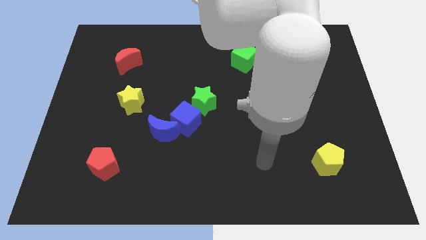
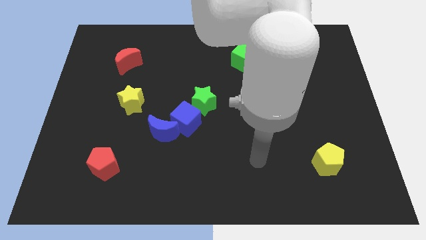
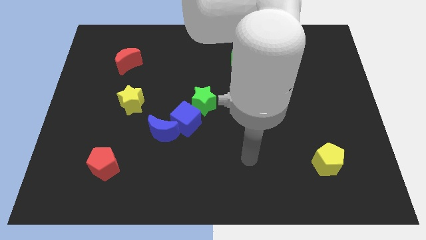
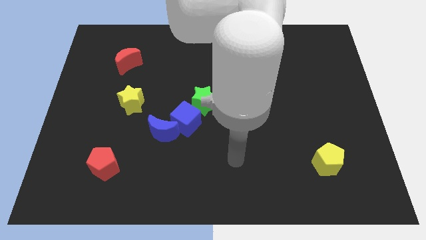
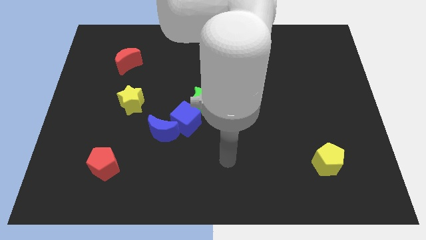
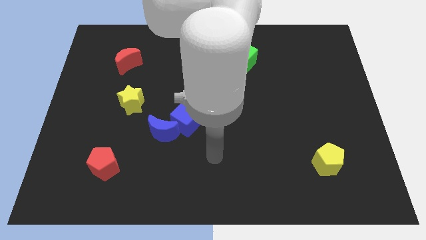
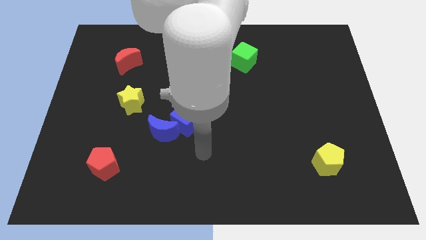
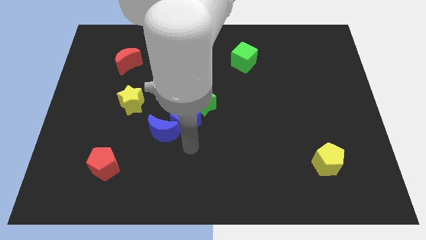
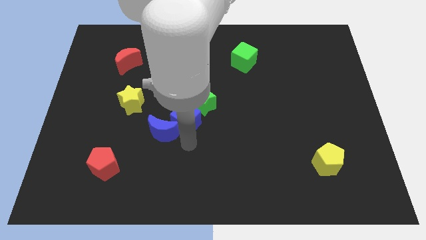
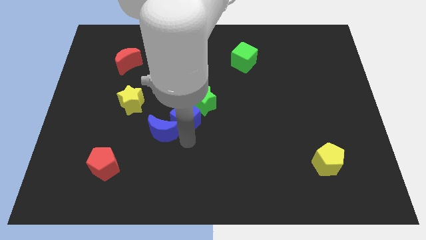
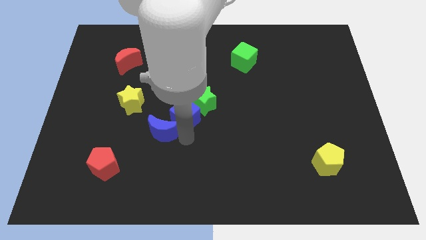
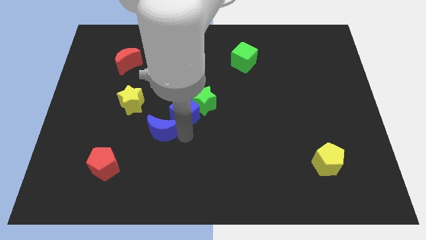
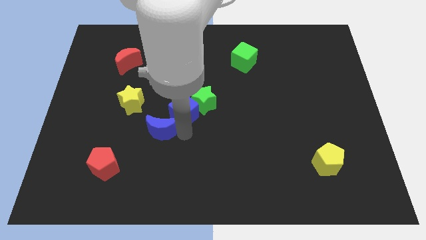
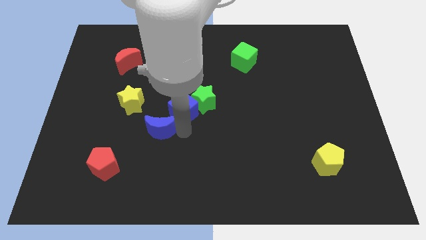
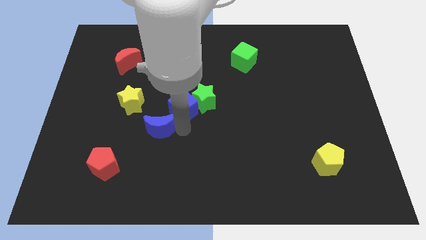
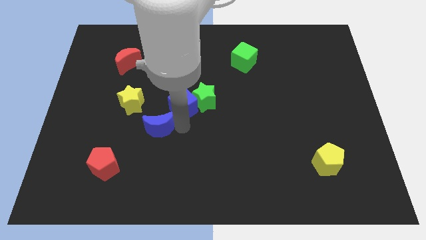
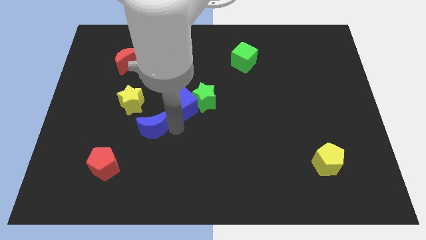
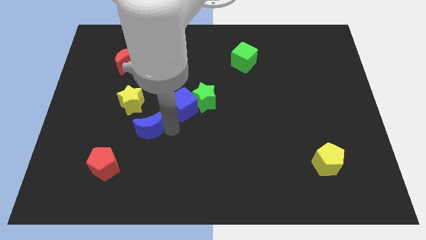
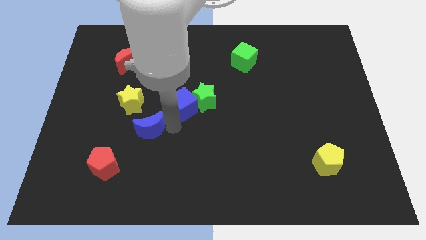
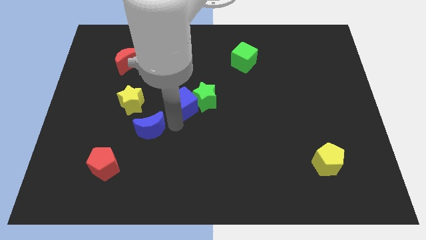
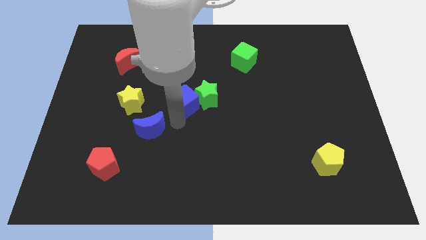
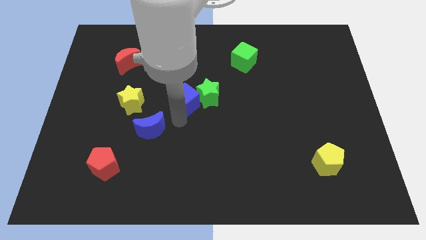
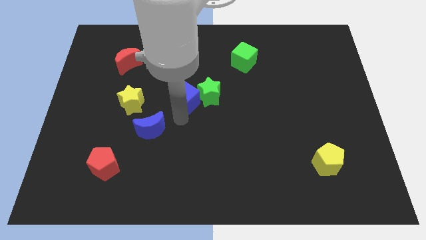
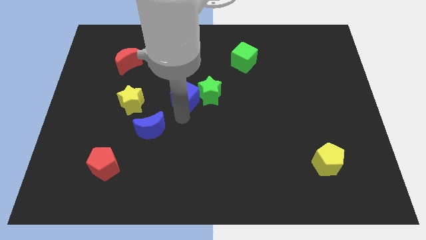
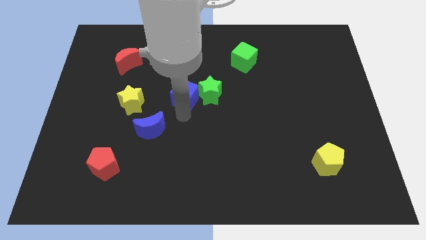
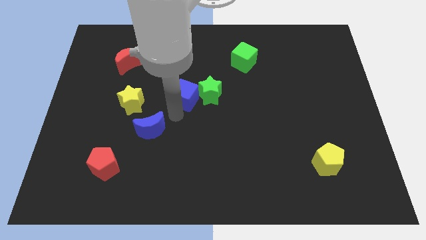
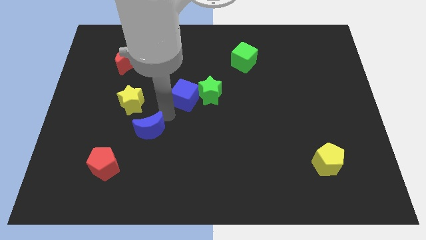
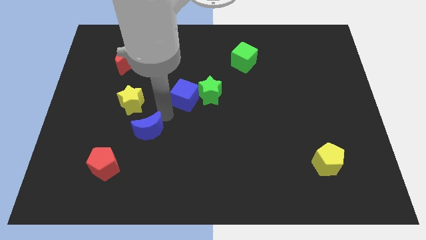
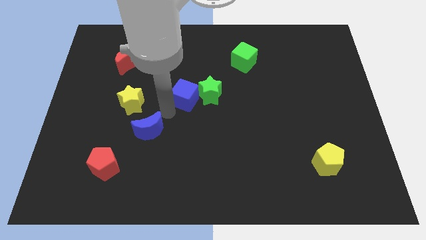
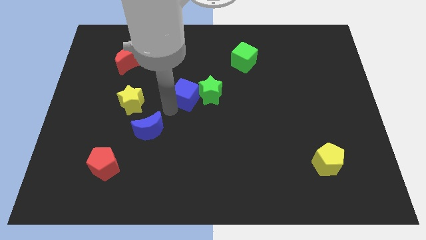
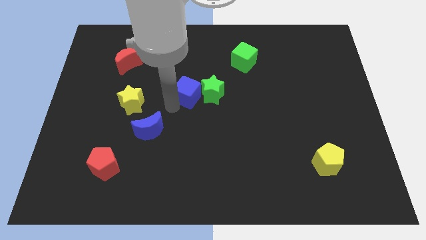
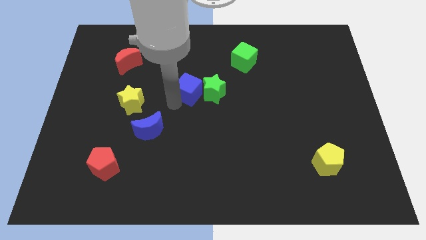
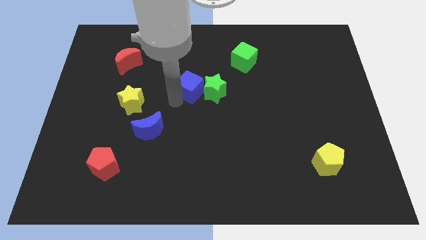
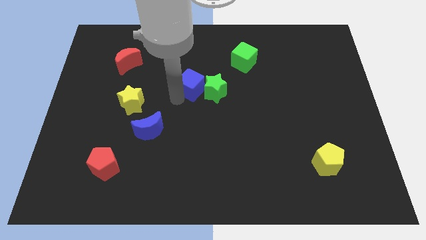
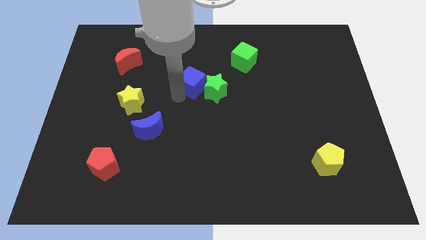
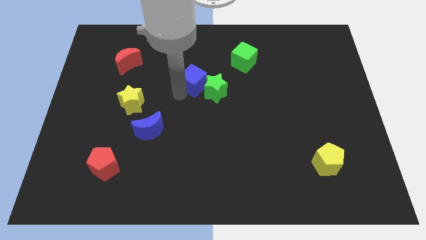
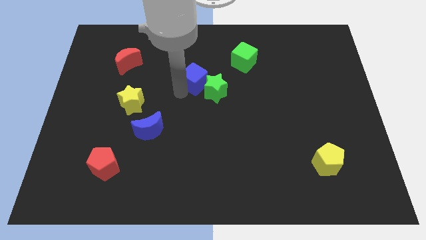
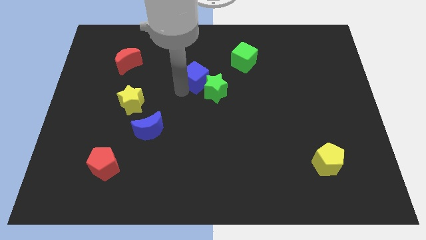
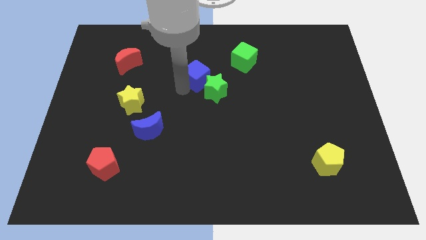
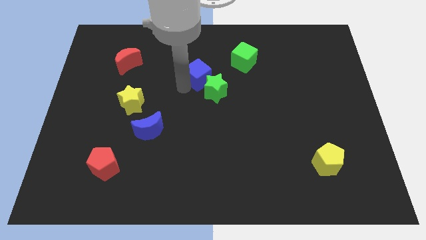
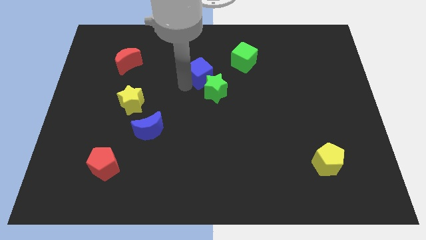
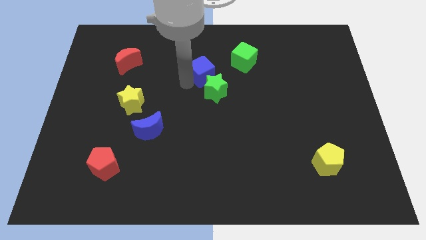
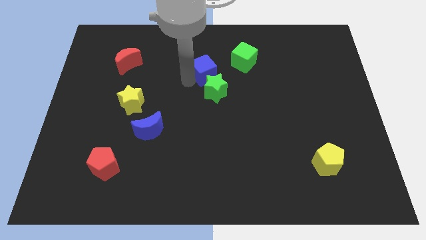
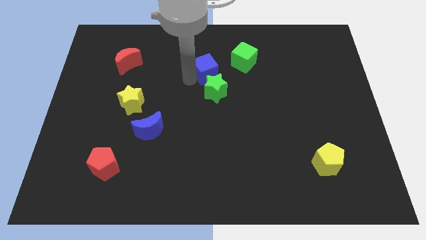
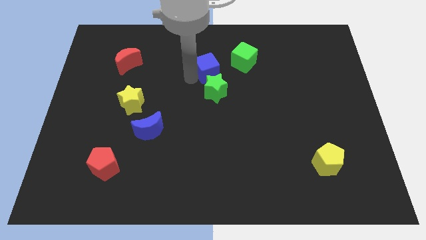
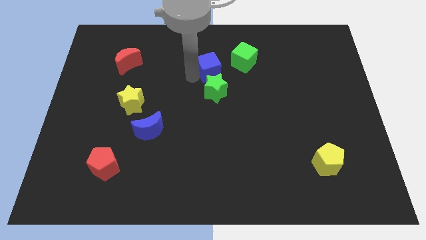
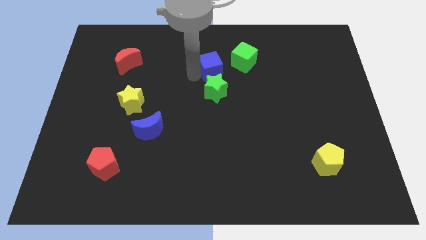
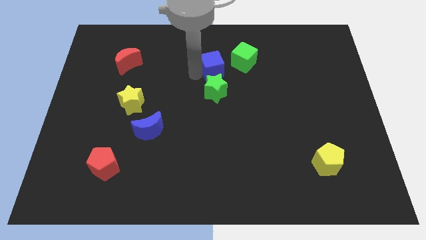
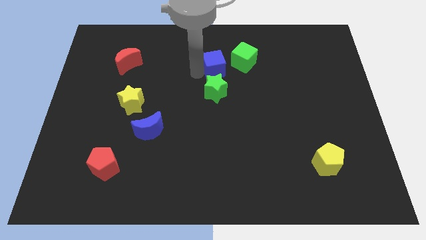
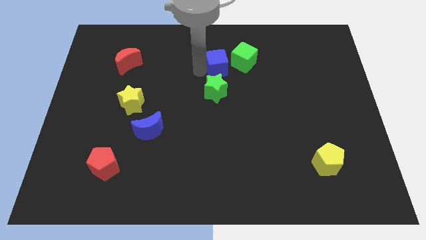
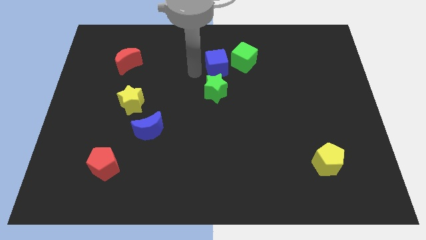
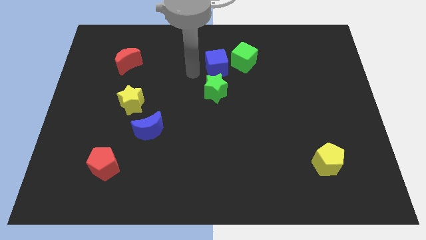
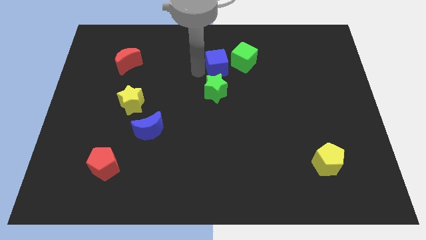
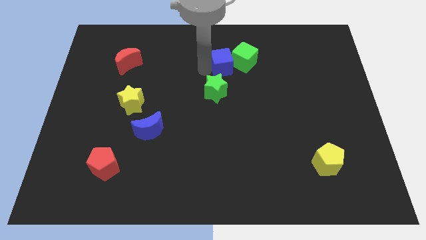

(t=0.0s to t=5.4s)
slide the blue cube close to the green cube

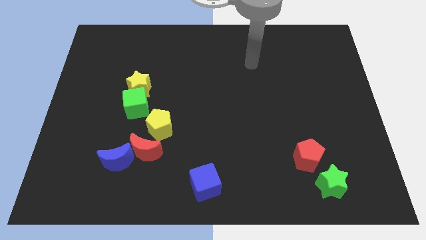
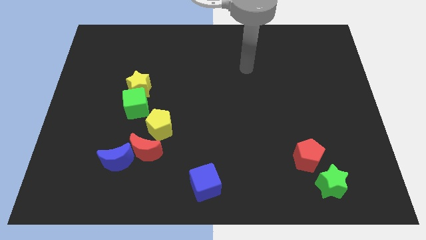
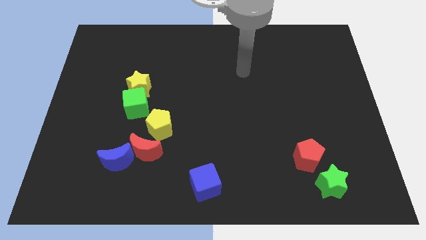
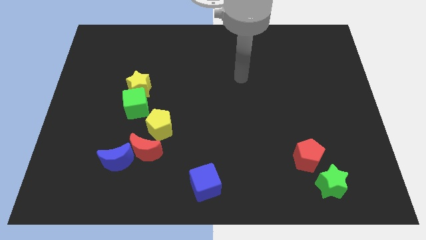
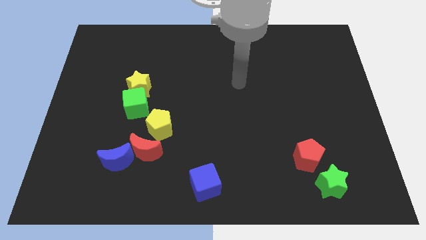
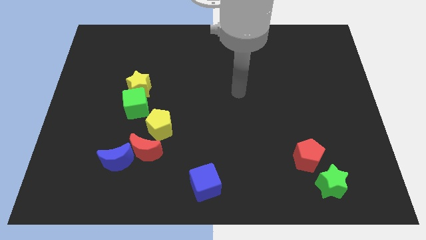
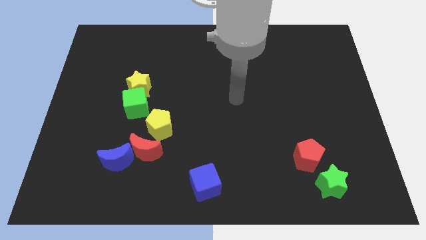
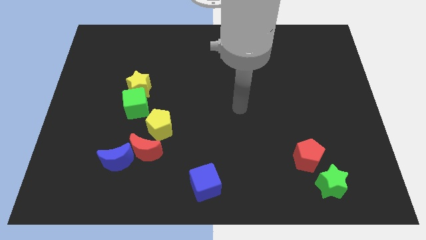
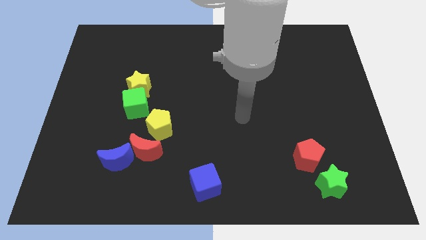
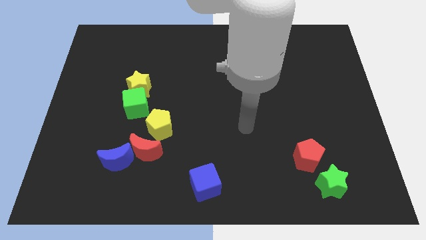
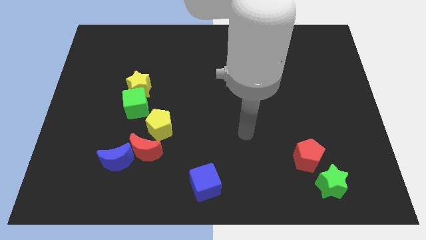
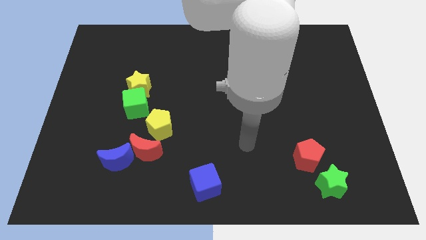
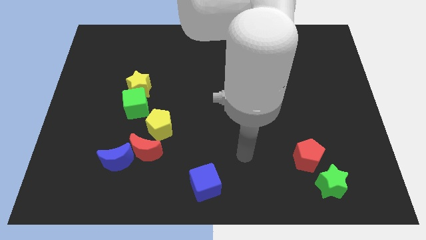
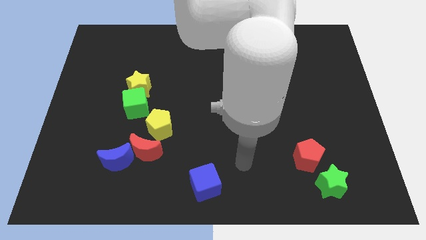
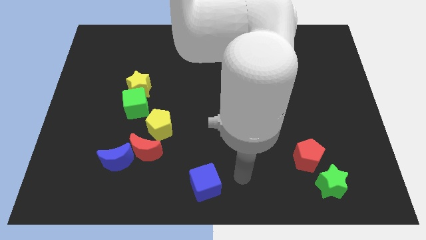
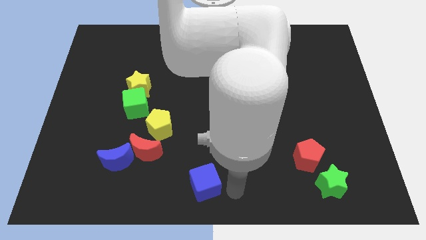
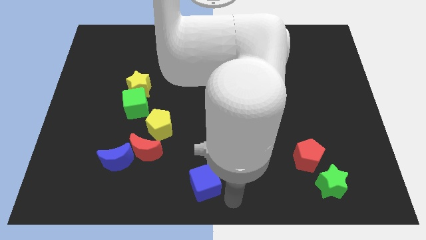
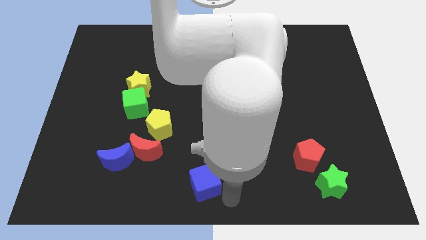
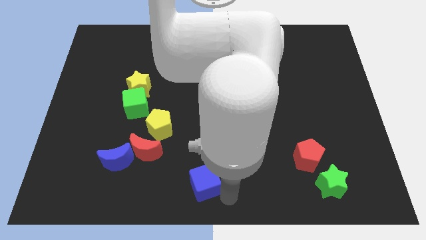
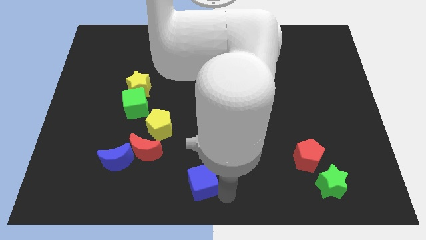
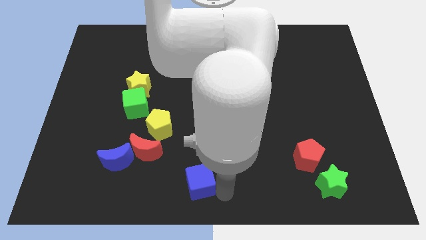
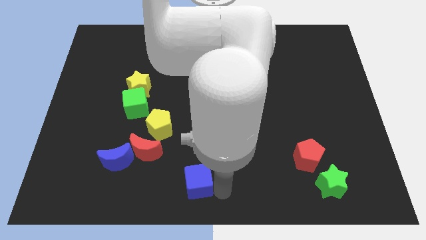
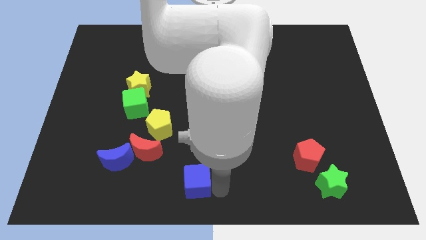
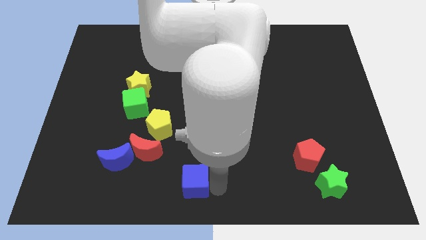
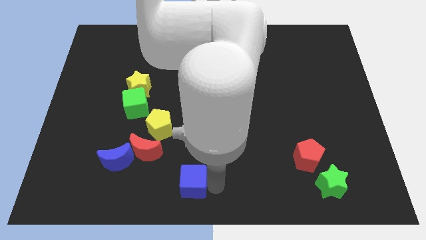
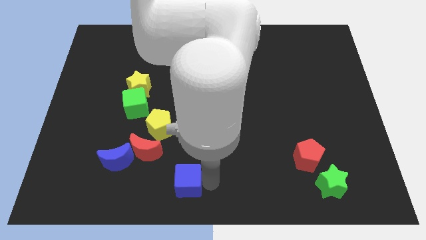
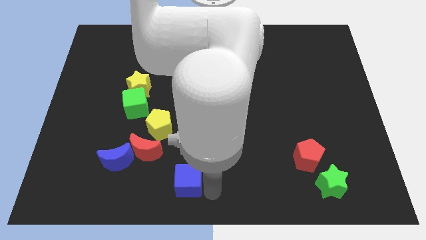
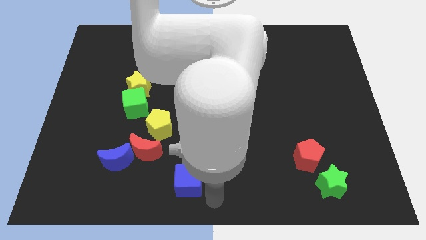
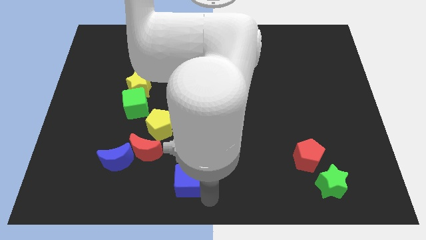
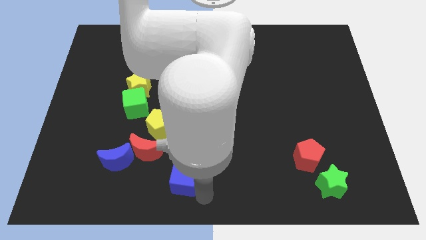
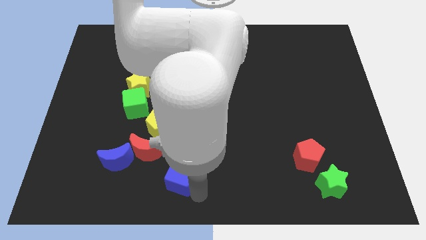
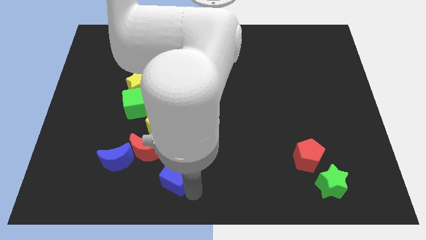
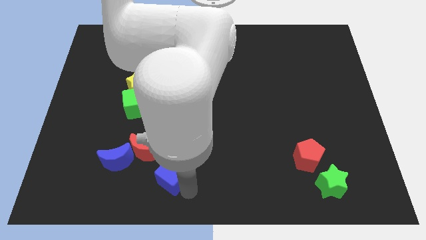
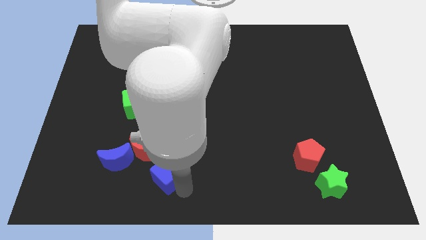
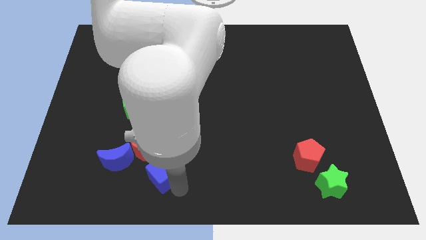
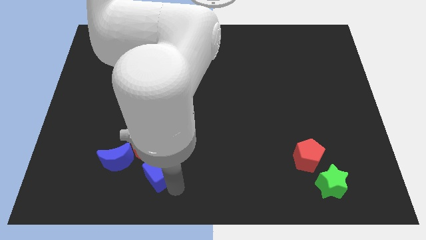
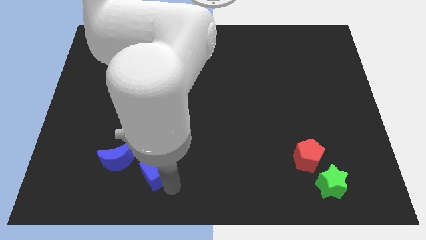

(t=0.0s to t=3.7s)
slide the blue cube towards the red moon
